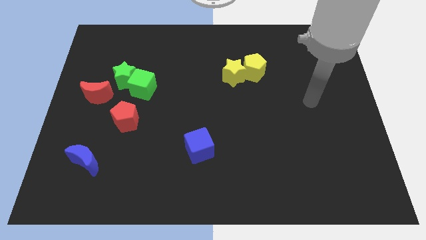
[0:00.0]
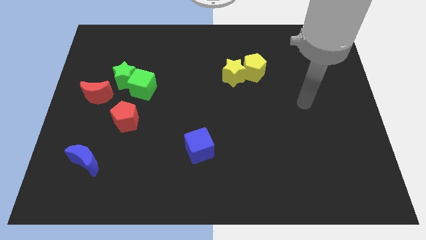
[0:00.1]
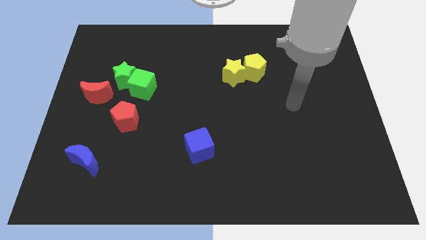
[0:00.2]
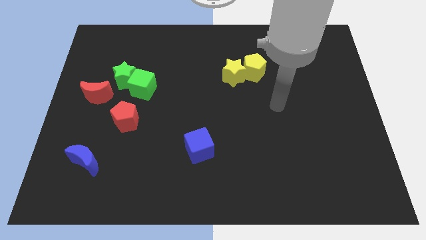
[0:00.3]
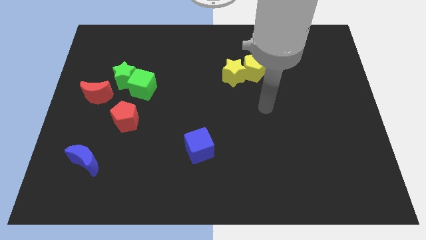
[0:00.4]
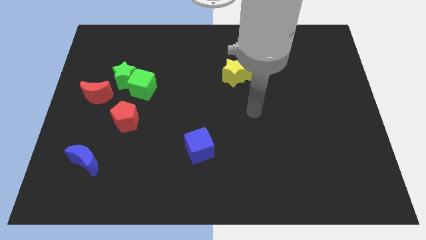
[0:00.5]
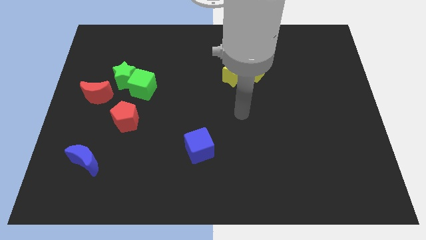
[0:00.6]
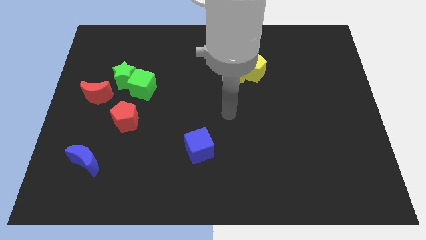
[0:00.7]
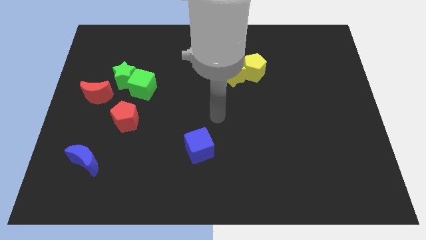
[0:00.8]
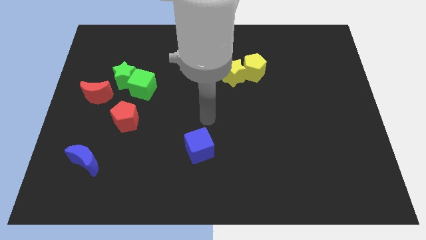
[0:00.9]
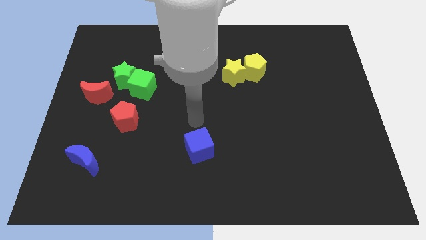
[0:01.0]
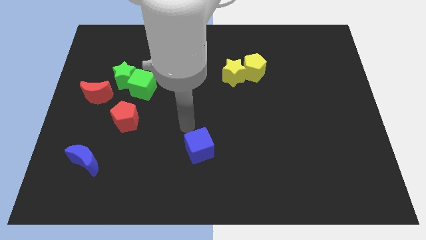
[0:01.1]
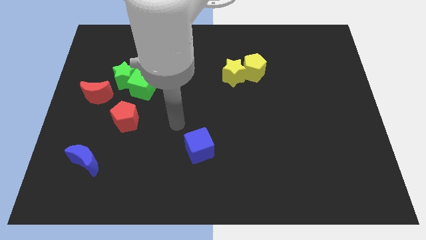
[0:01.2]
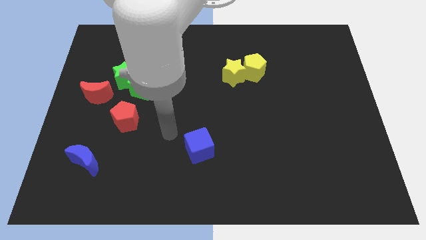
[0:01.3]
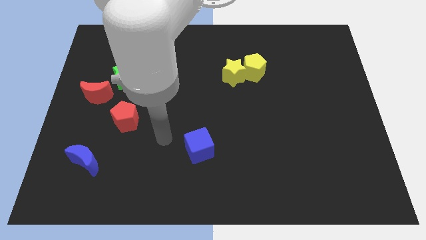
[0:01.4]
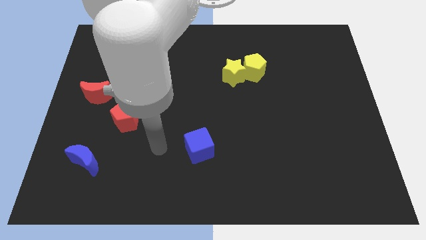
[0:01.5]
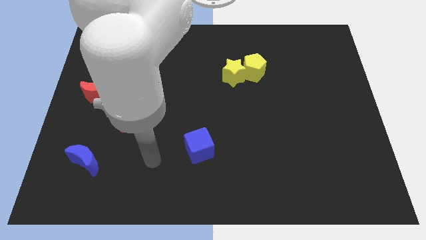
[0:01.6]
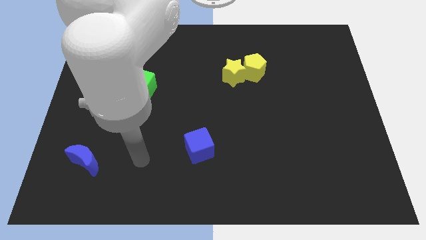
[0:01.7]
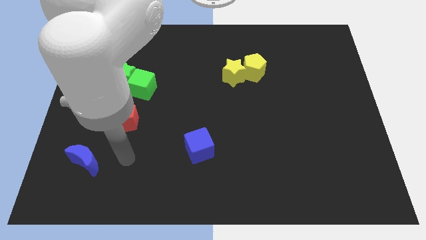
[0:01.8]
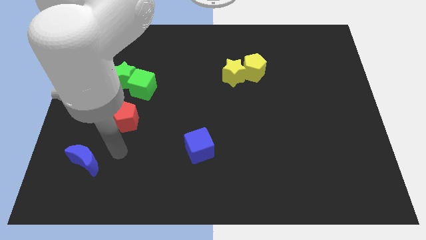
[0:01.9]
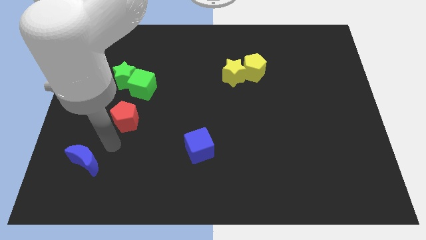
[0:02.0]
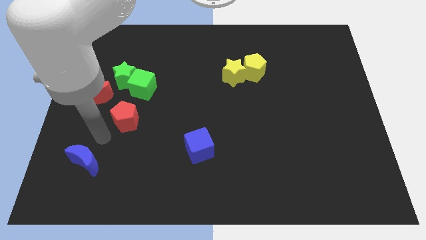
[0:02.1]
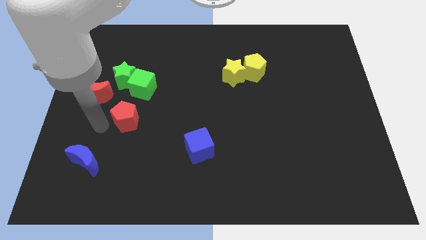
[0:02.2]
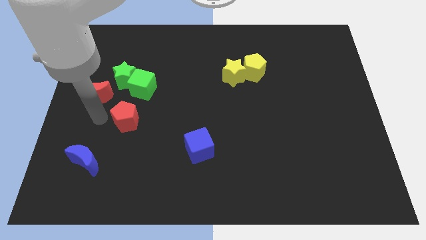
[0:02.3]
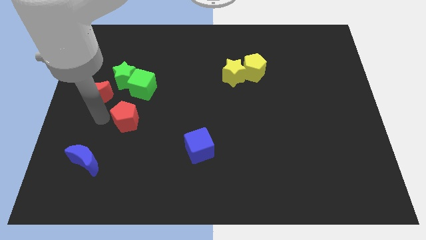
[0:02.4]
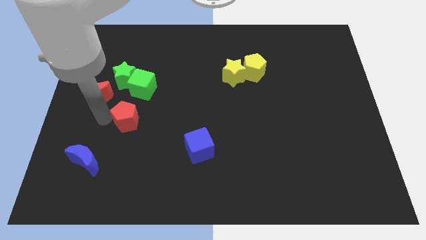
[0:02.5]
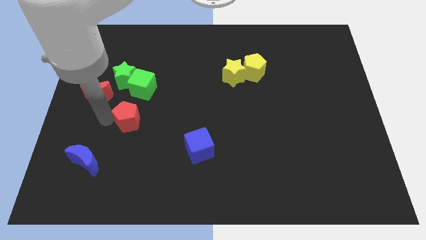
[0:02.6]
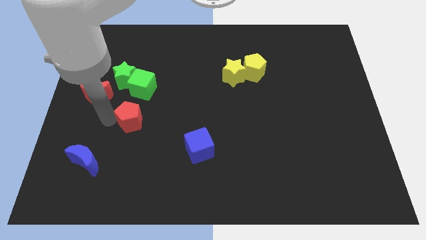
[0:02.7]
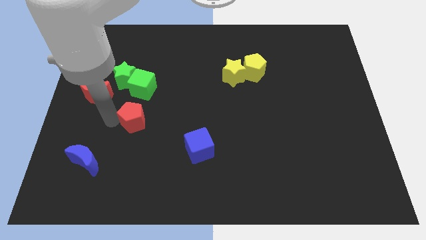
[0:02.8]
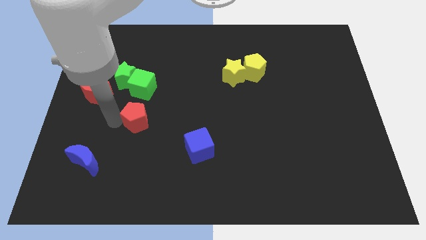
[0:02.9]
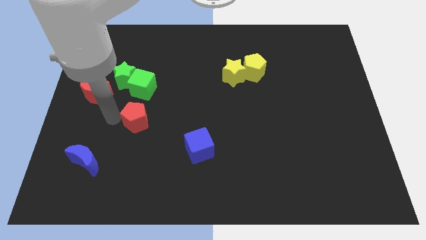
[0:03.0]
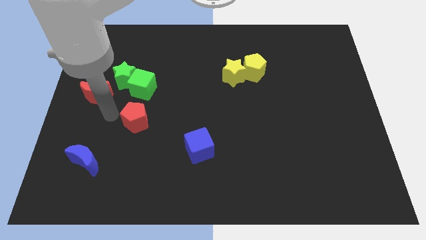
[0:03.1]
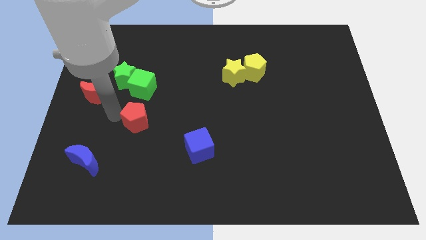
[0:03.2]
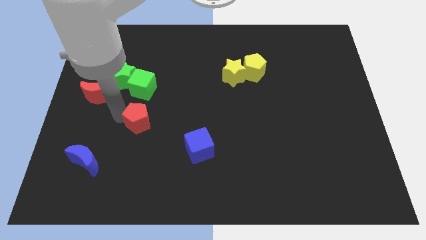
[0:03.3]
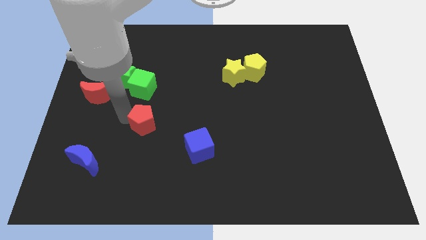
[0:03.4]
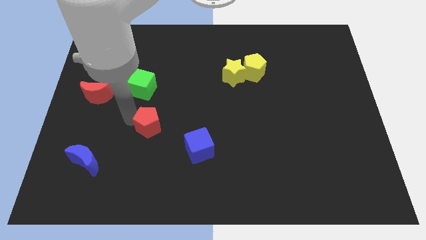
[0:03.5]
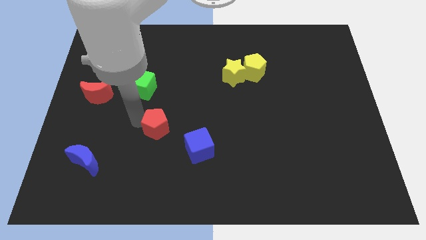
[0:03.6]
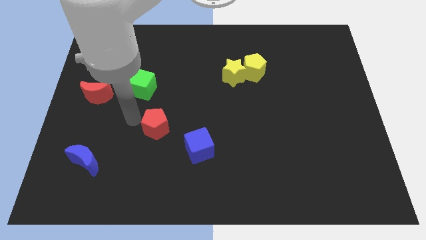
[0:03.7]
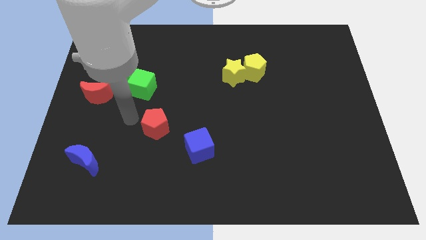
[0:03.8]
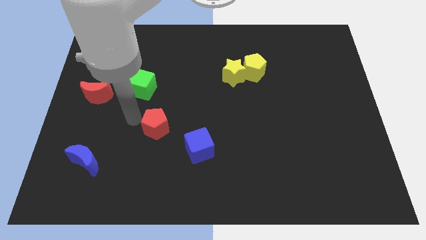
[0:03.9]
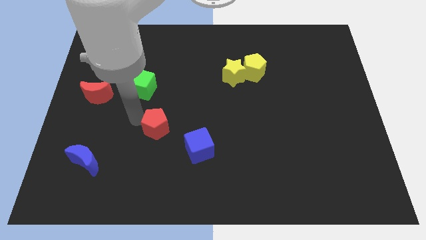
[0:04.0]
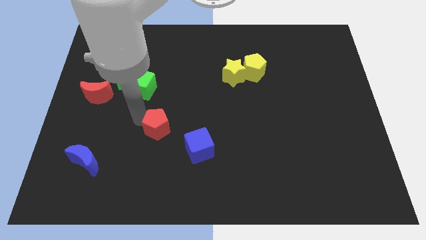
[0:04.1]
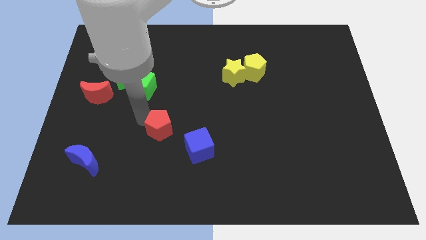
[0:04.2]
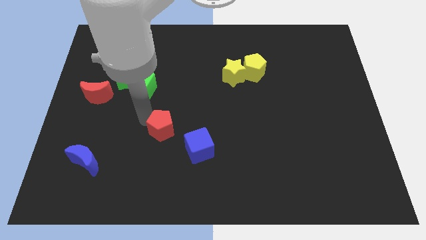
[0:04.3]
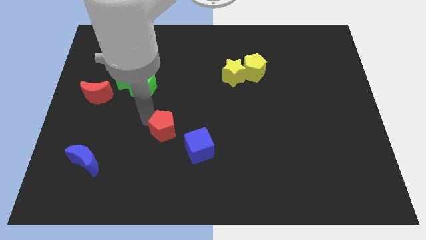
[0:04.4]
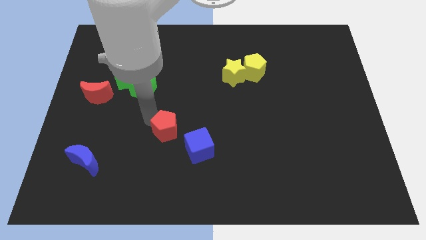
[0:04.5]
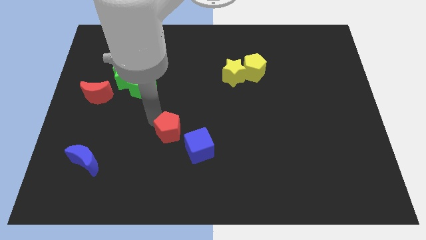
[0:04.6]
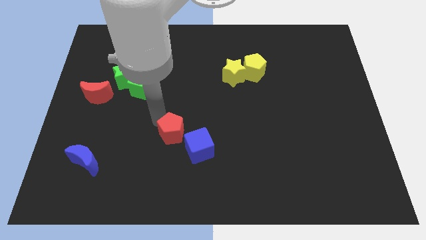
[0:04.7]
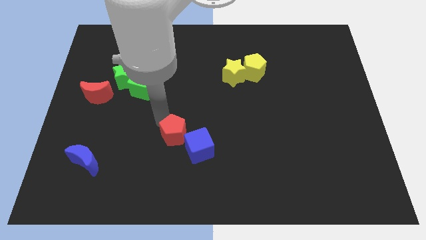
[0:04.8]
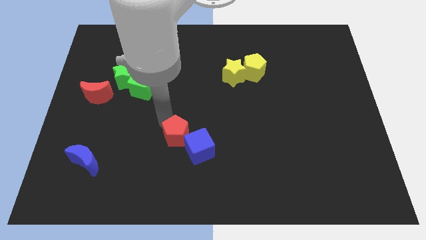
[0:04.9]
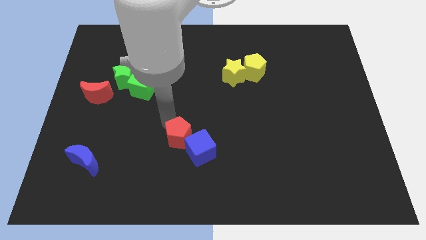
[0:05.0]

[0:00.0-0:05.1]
push the red pentagon towards the blue cube

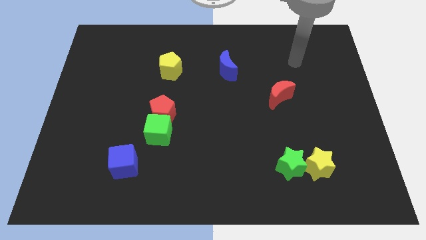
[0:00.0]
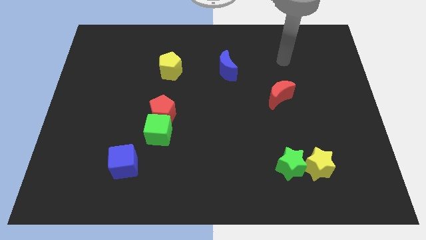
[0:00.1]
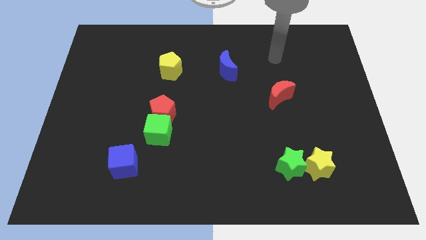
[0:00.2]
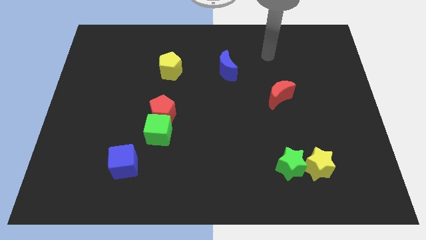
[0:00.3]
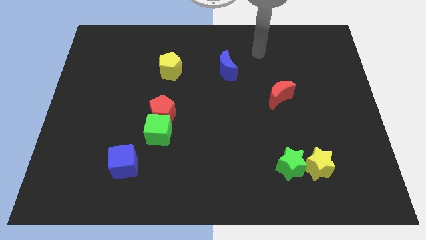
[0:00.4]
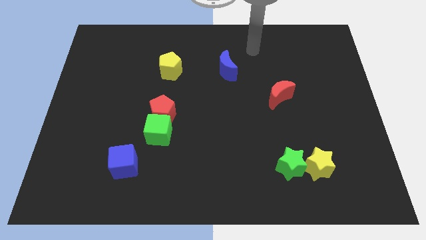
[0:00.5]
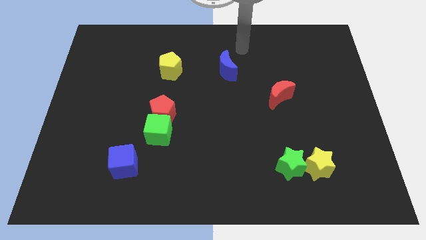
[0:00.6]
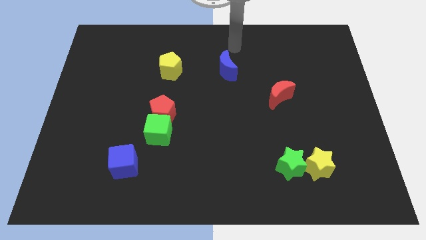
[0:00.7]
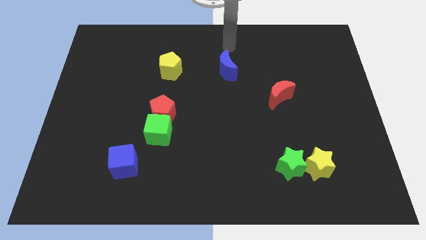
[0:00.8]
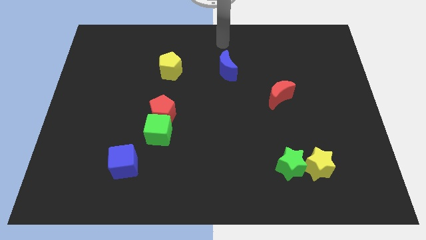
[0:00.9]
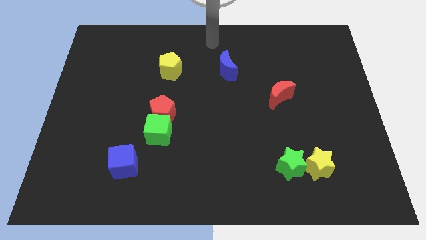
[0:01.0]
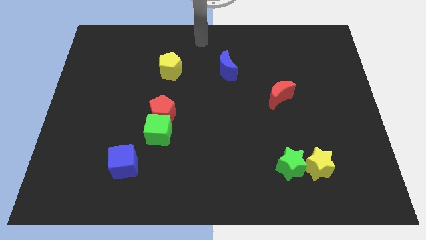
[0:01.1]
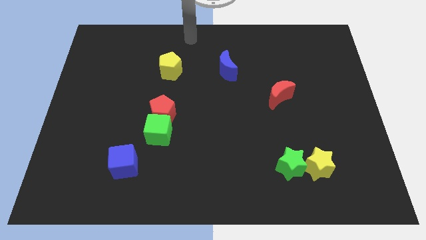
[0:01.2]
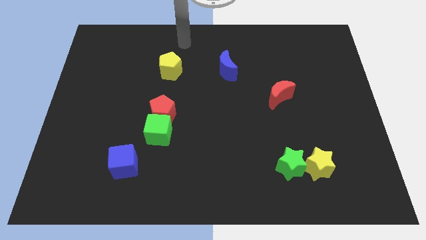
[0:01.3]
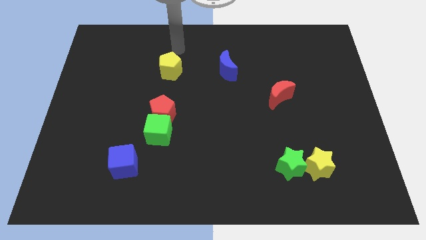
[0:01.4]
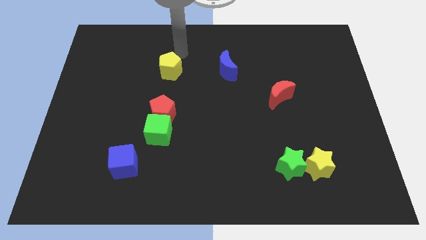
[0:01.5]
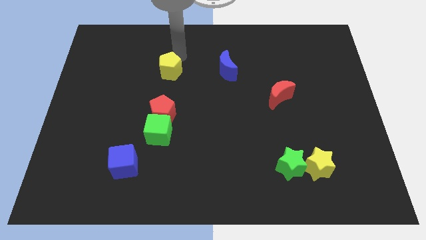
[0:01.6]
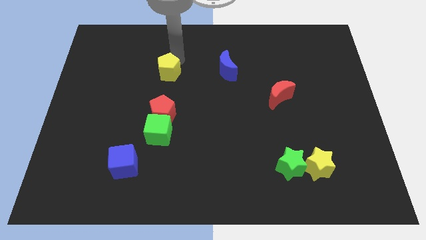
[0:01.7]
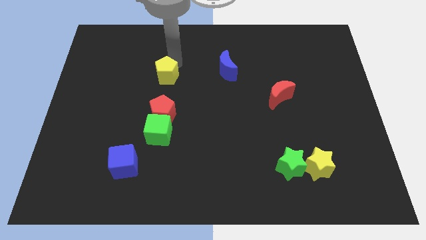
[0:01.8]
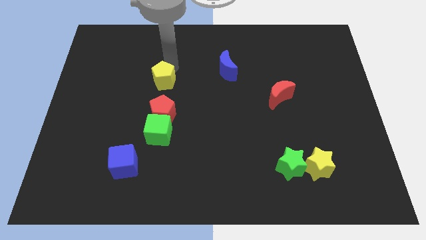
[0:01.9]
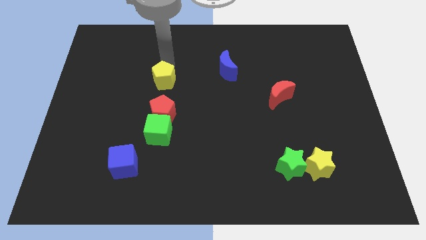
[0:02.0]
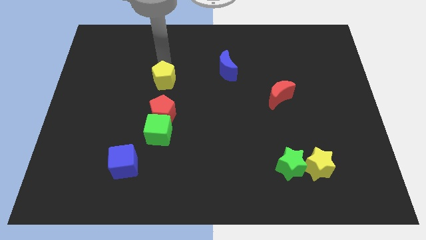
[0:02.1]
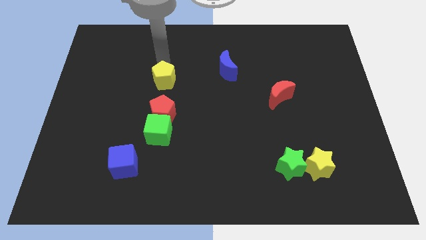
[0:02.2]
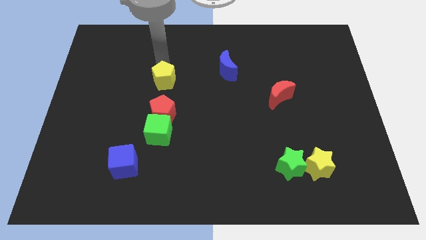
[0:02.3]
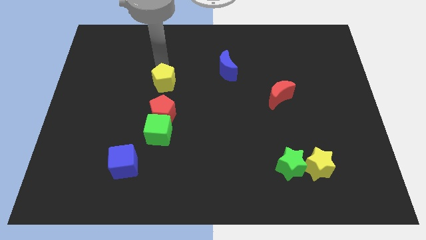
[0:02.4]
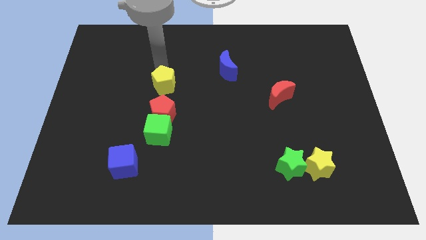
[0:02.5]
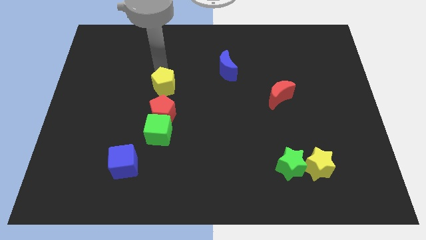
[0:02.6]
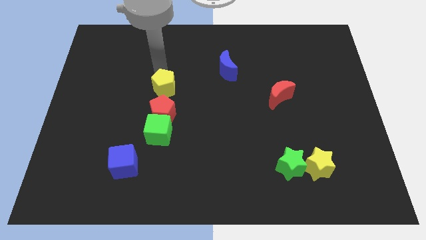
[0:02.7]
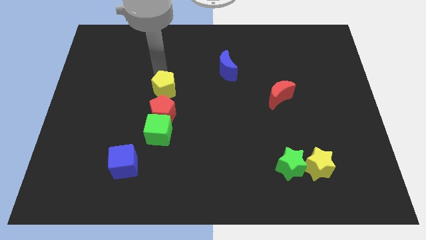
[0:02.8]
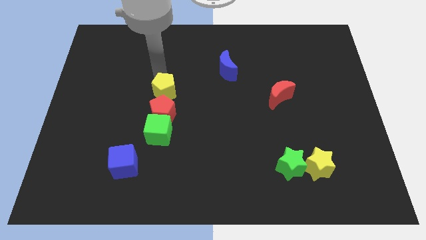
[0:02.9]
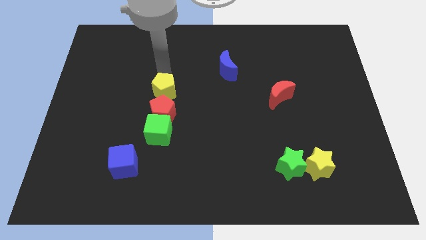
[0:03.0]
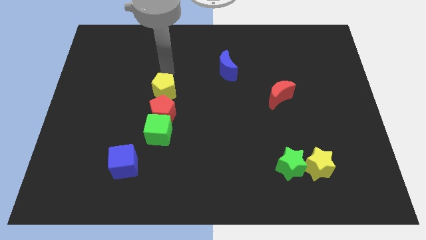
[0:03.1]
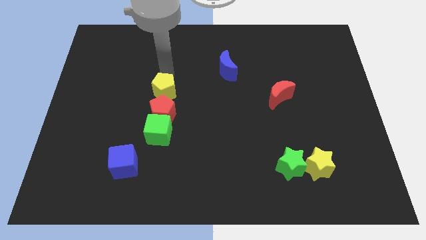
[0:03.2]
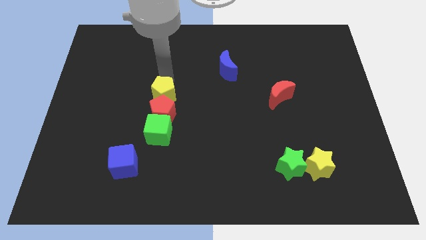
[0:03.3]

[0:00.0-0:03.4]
move the yellow pentagon towards the red pentagon
